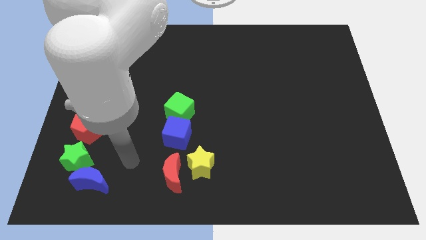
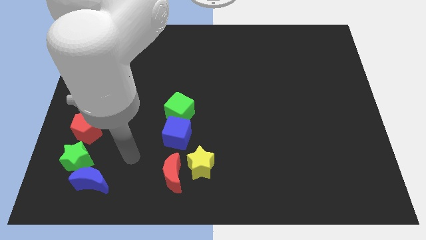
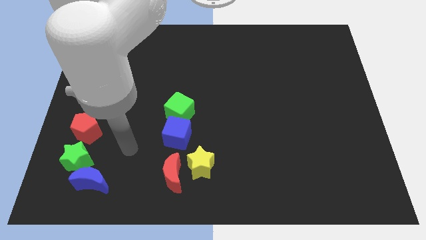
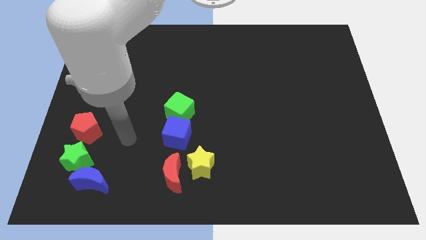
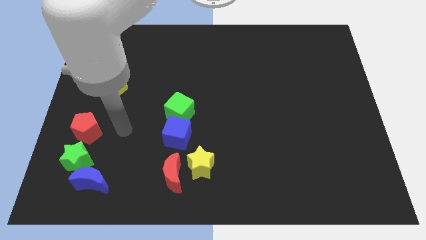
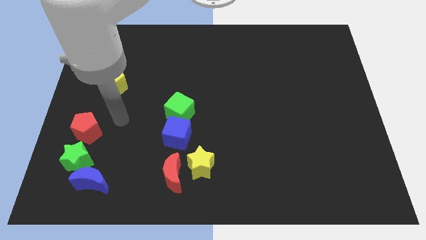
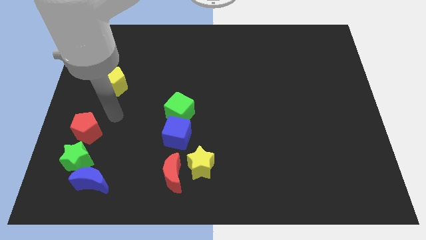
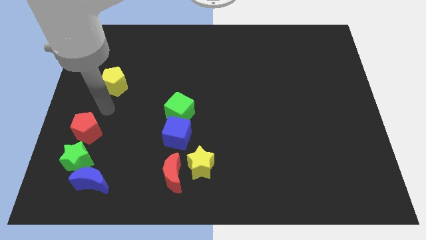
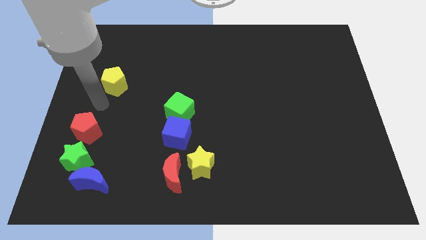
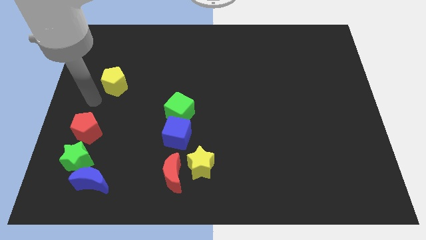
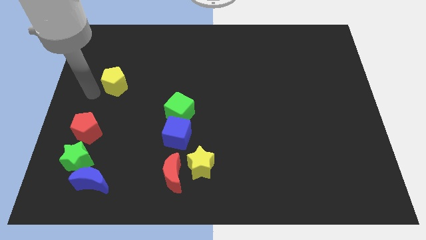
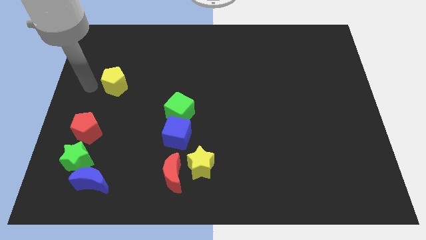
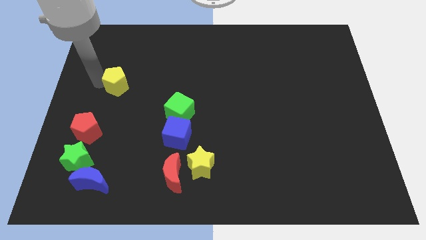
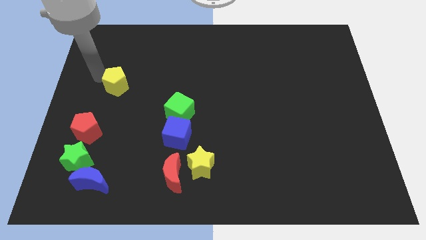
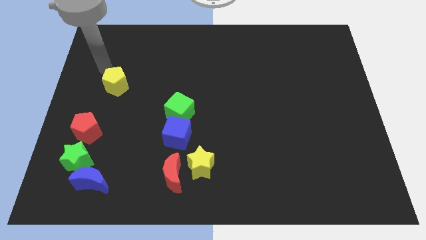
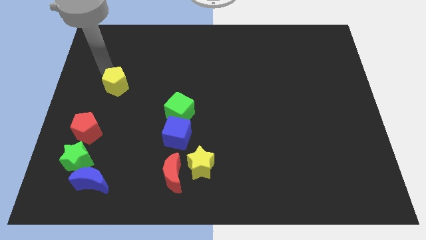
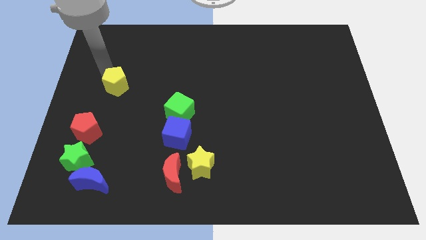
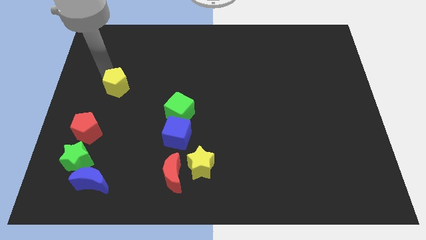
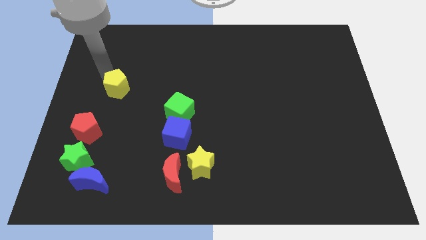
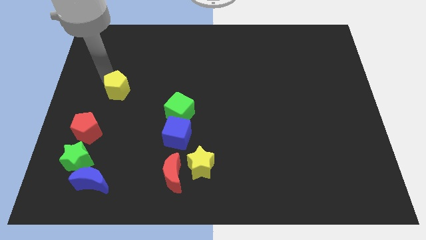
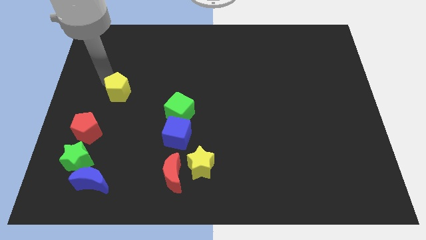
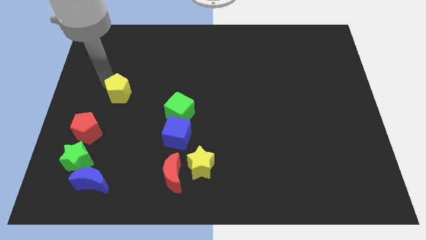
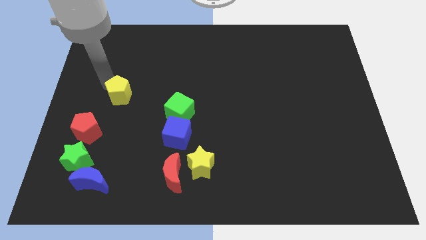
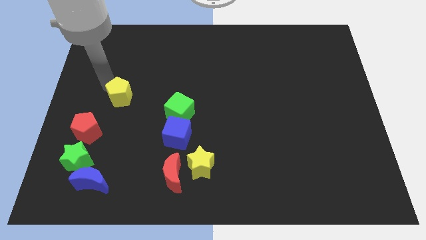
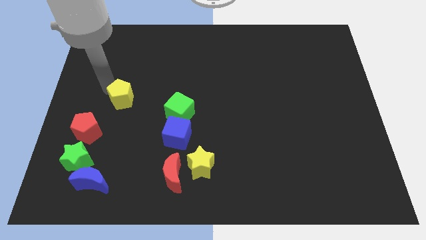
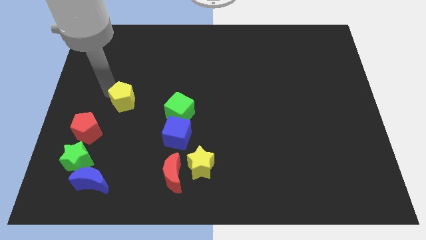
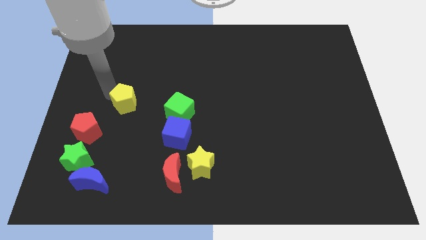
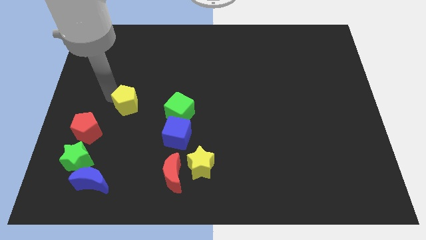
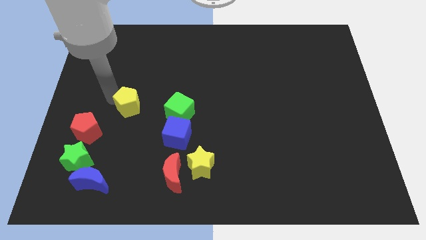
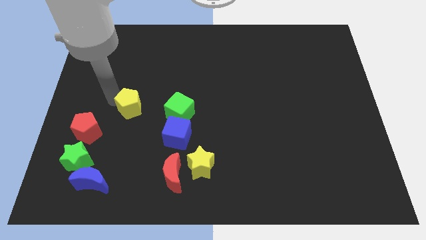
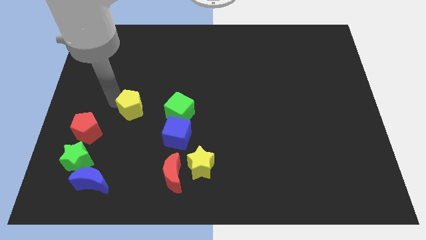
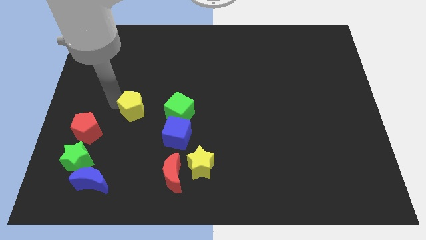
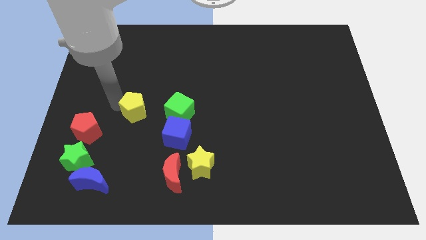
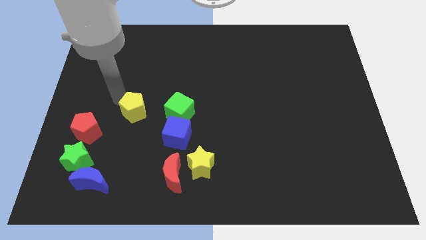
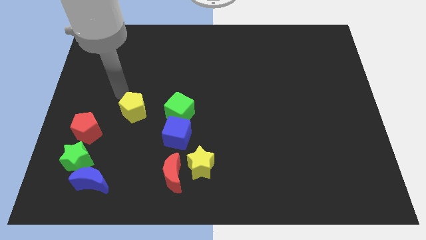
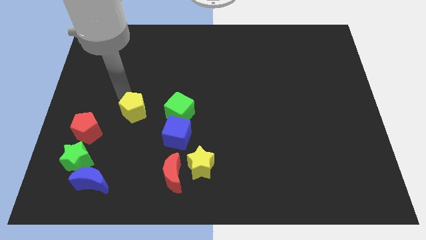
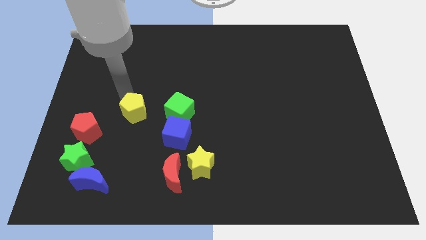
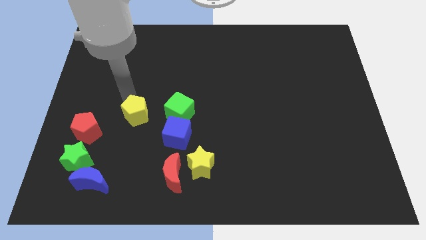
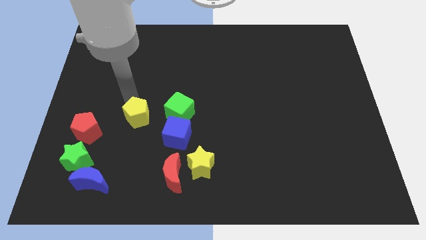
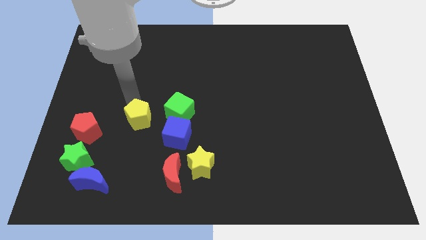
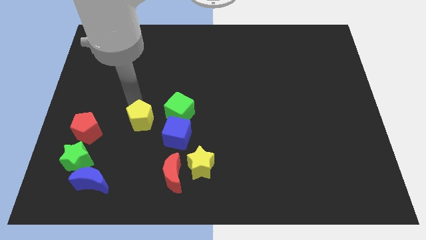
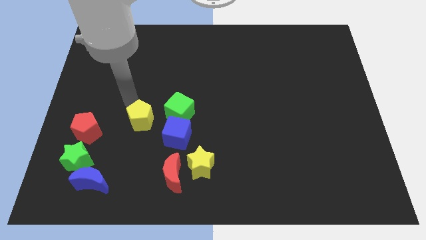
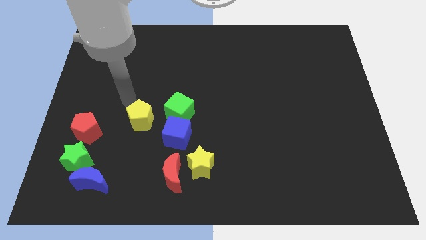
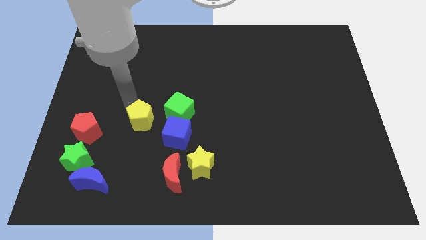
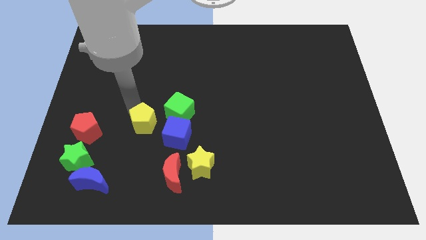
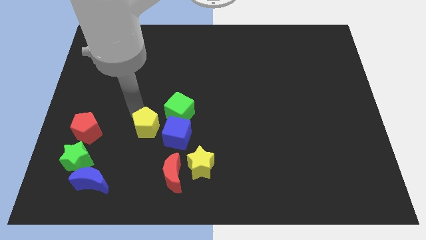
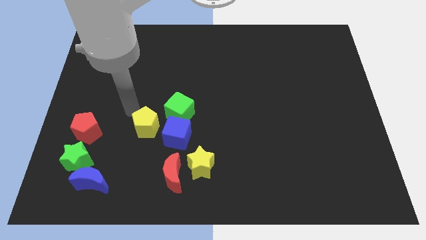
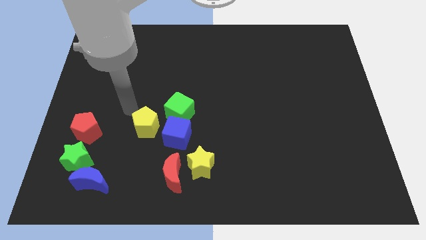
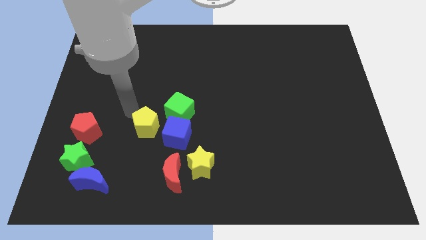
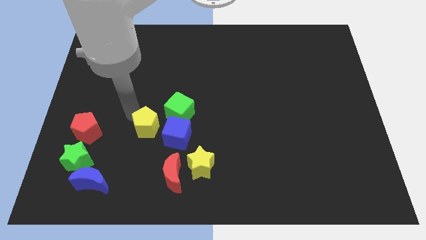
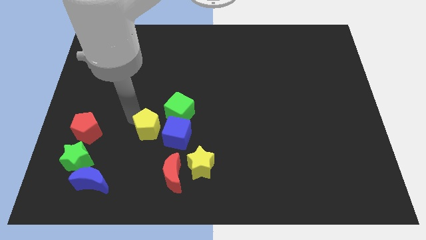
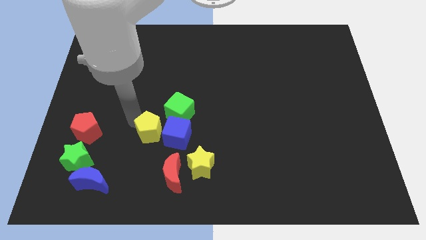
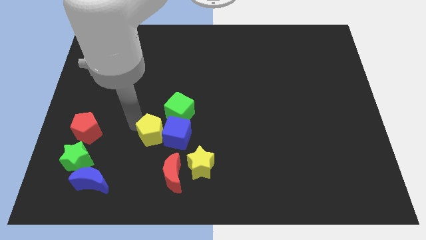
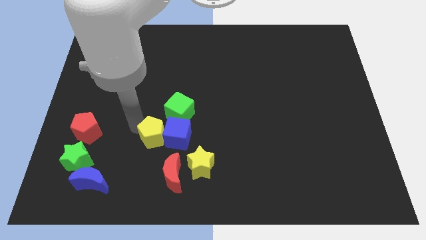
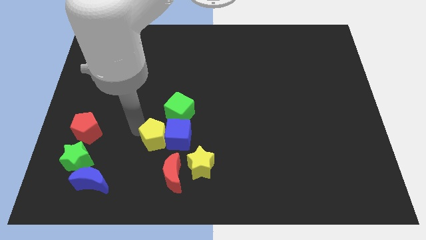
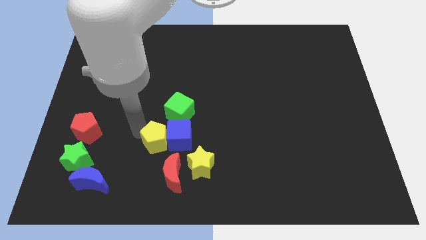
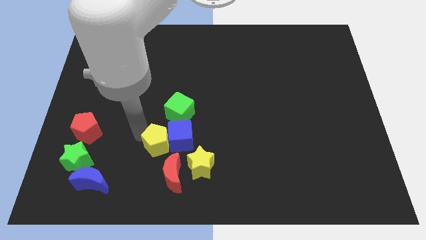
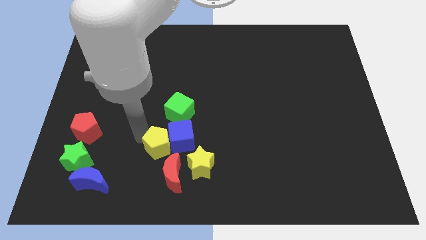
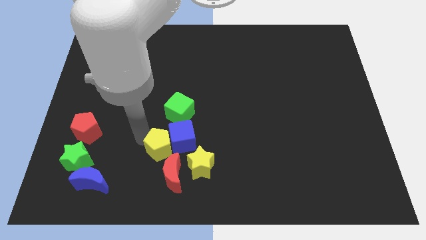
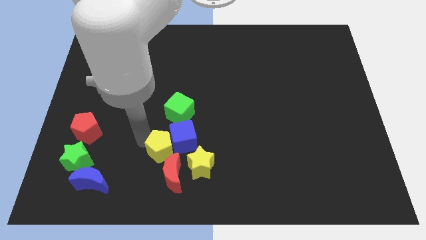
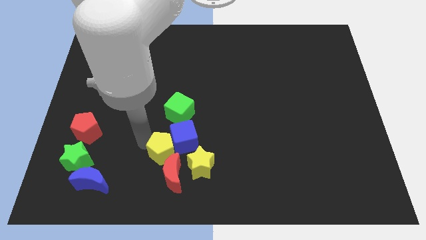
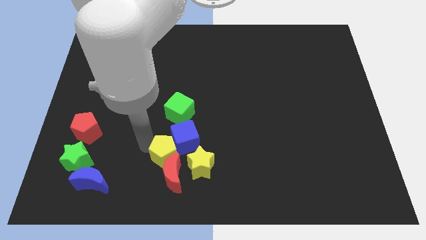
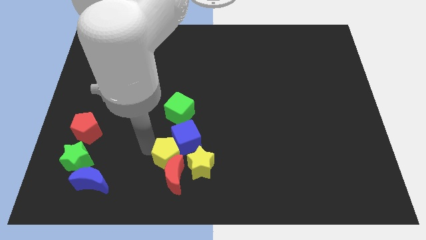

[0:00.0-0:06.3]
push the yellow pentagon diagonally up and to the right of the red moon
